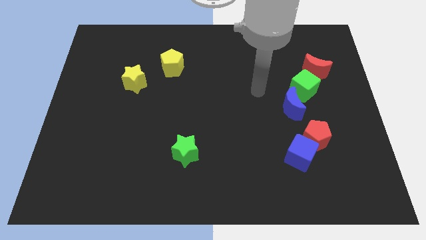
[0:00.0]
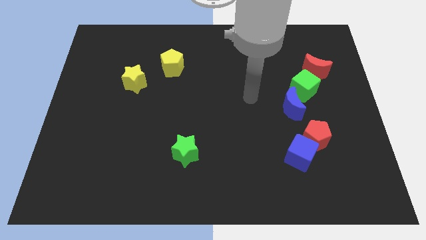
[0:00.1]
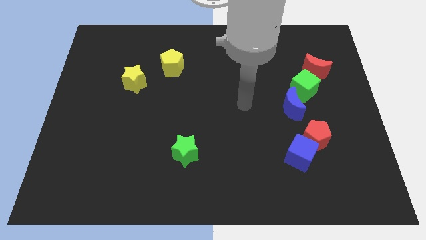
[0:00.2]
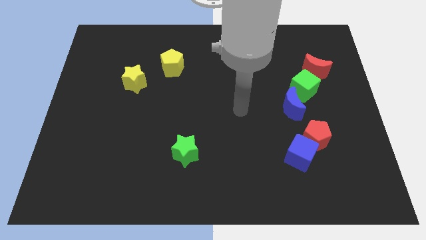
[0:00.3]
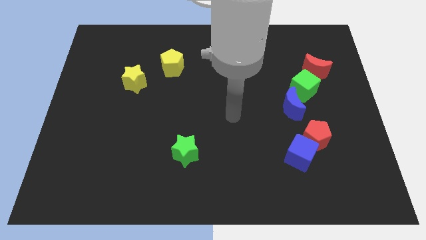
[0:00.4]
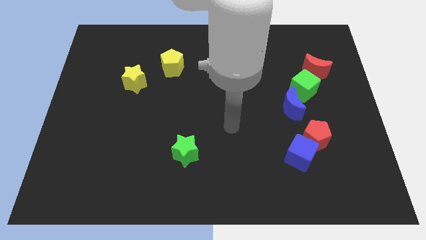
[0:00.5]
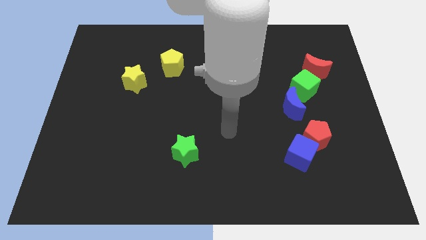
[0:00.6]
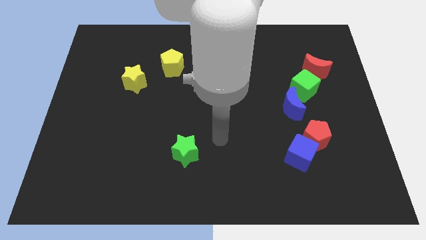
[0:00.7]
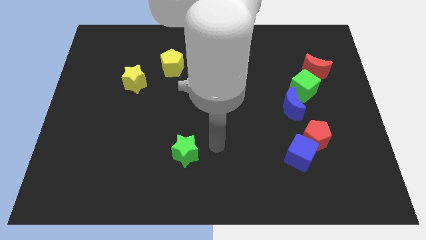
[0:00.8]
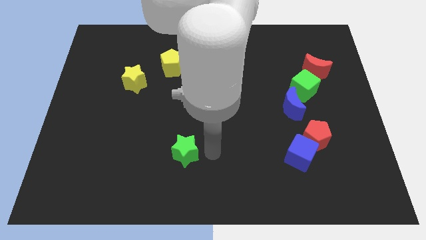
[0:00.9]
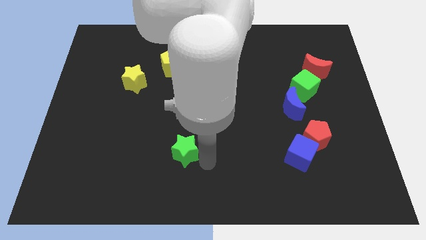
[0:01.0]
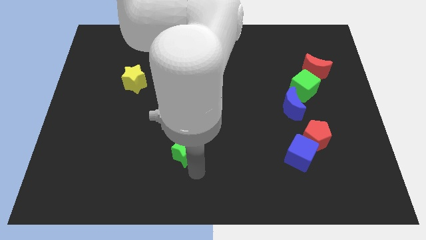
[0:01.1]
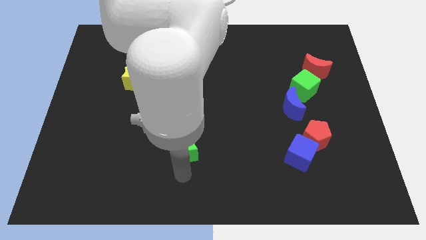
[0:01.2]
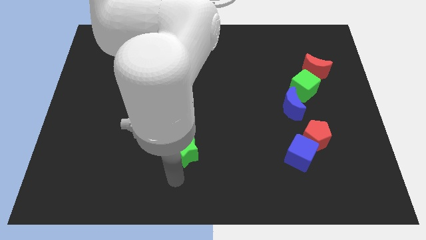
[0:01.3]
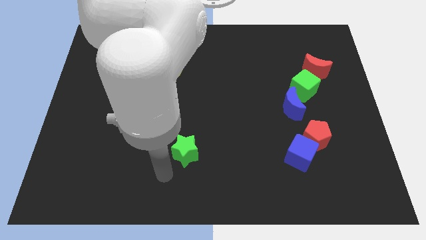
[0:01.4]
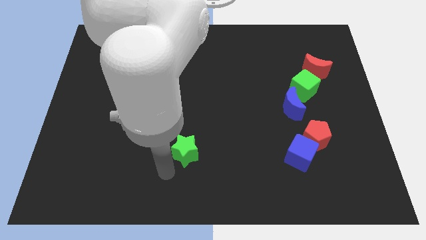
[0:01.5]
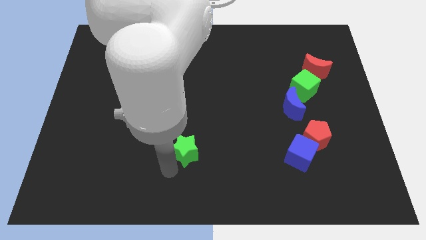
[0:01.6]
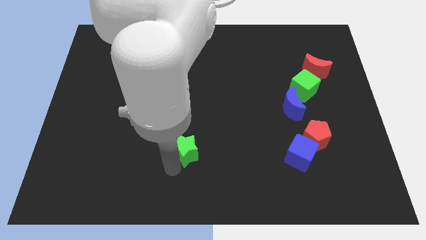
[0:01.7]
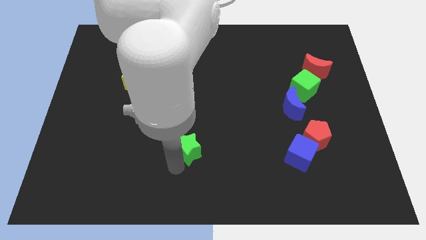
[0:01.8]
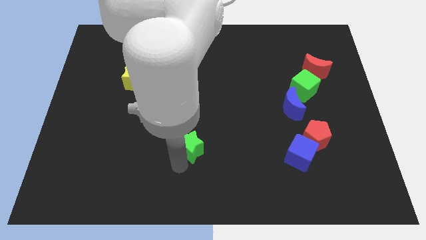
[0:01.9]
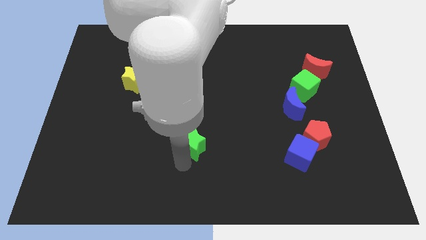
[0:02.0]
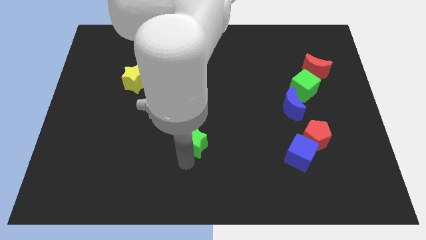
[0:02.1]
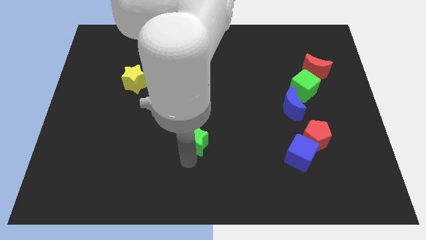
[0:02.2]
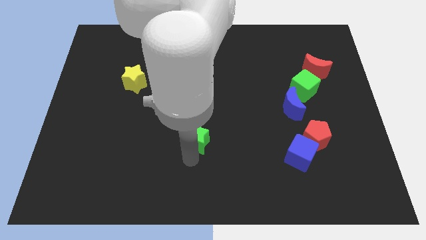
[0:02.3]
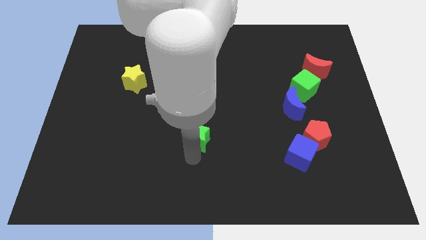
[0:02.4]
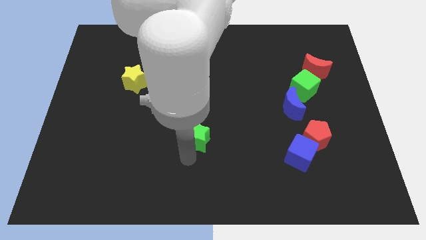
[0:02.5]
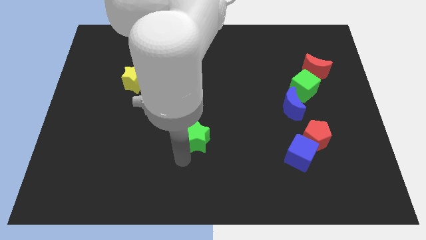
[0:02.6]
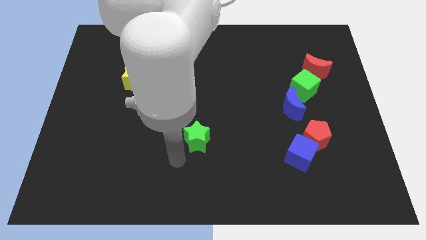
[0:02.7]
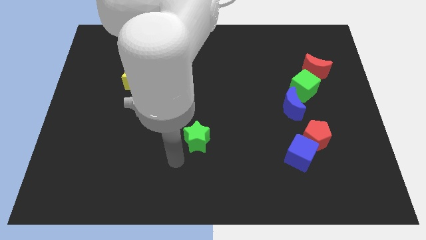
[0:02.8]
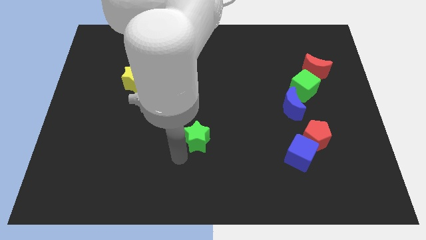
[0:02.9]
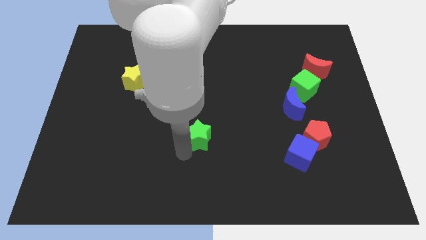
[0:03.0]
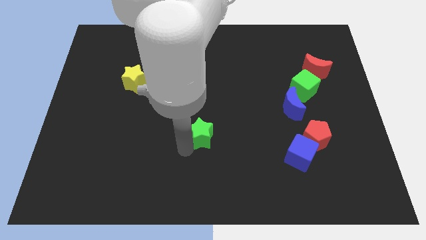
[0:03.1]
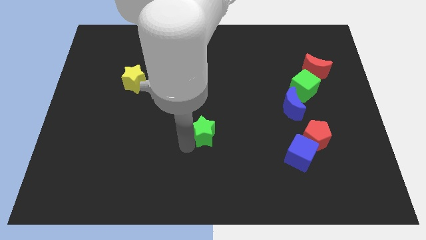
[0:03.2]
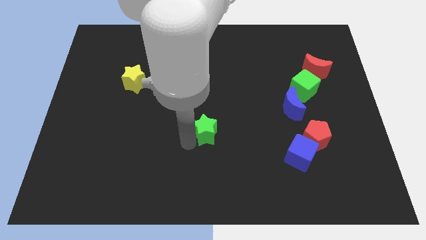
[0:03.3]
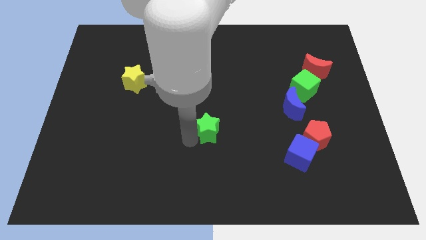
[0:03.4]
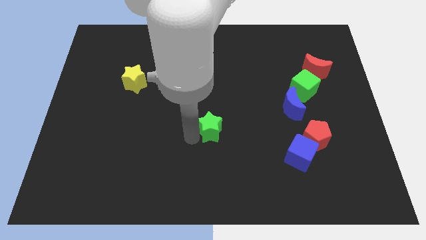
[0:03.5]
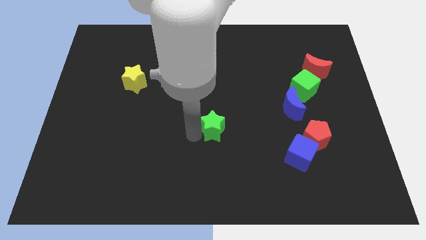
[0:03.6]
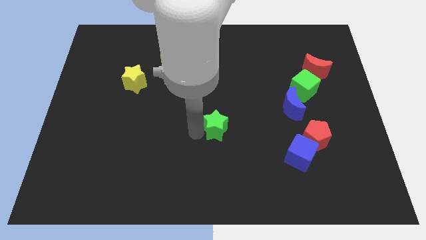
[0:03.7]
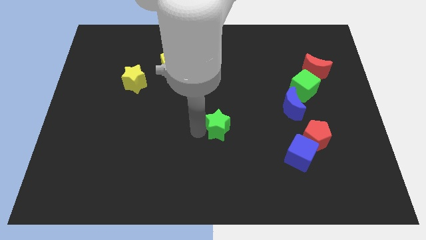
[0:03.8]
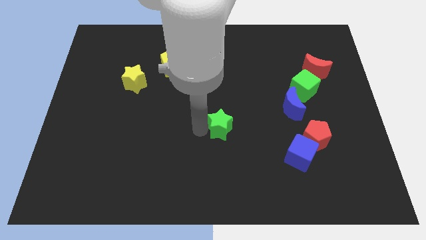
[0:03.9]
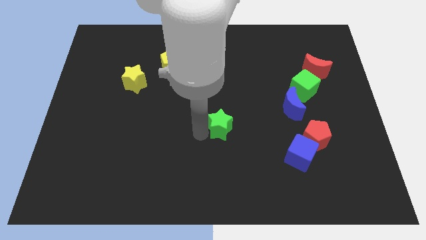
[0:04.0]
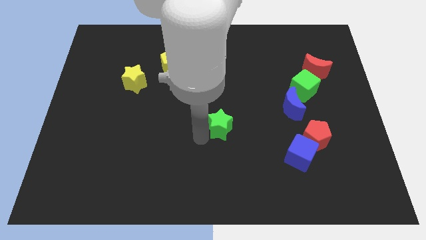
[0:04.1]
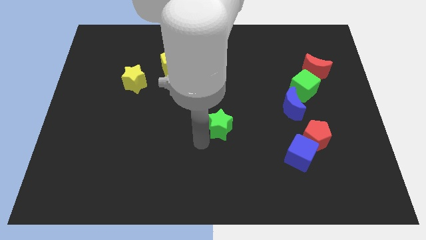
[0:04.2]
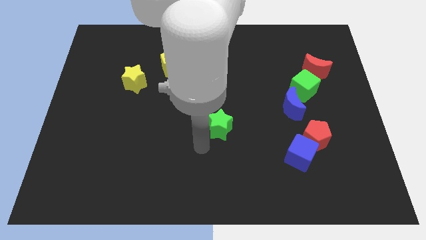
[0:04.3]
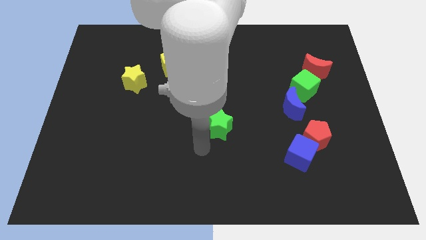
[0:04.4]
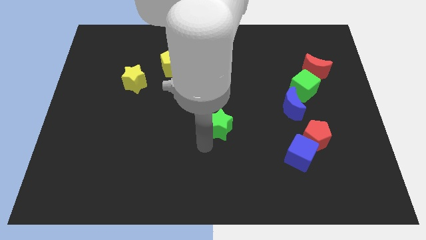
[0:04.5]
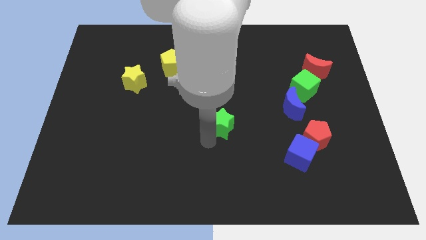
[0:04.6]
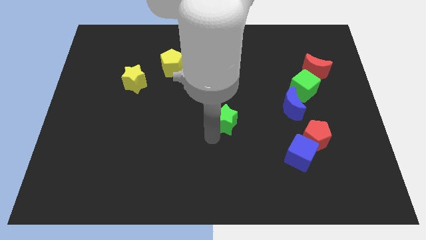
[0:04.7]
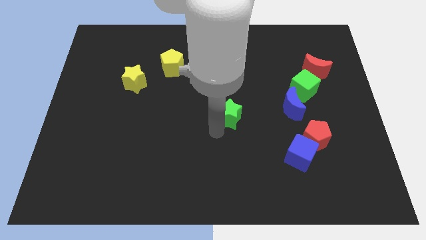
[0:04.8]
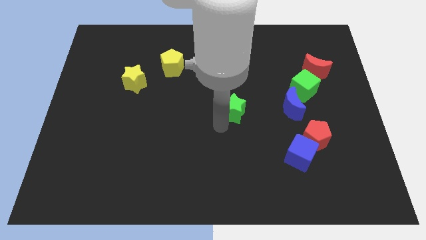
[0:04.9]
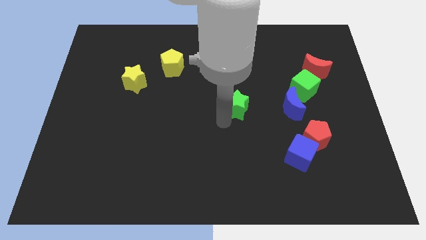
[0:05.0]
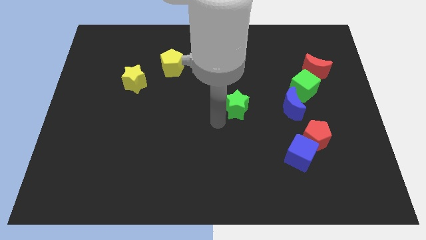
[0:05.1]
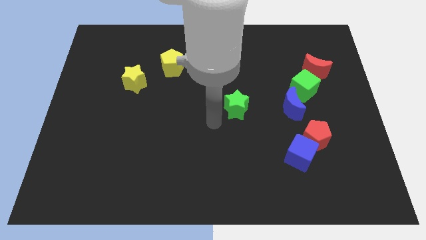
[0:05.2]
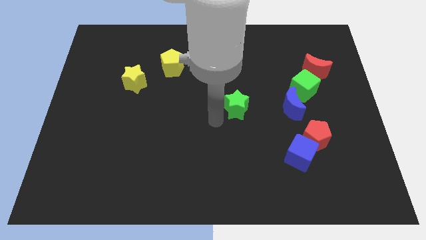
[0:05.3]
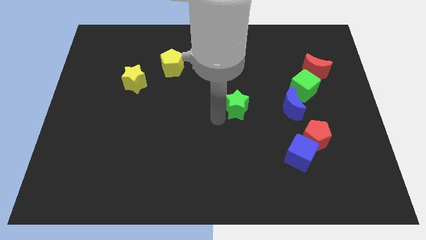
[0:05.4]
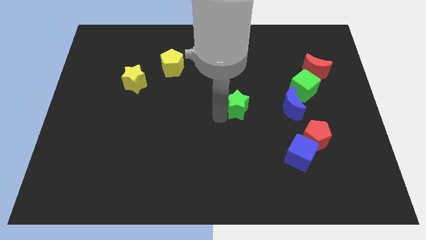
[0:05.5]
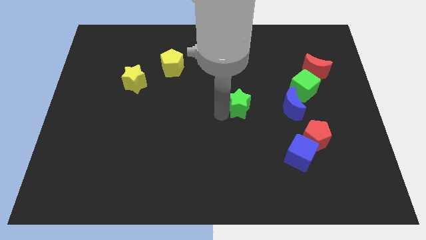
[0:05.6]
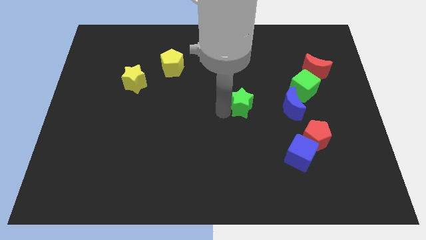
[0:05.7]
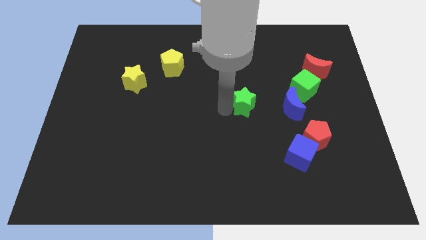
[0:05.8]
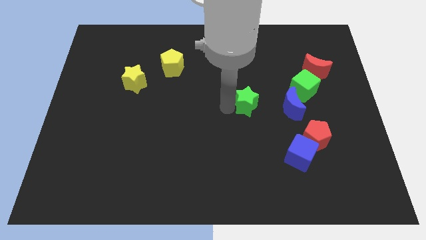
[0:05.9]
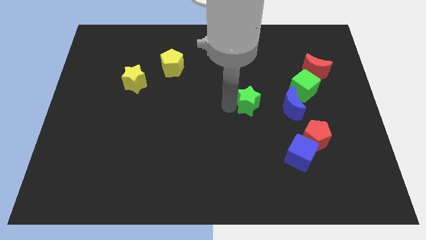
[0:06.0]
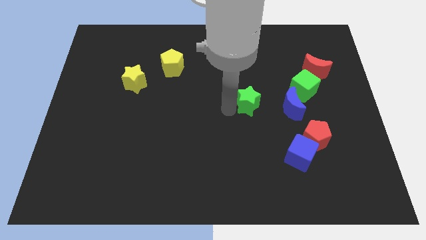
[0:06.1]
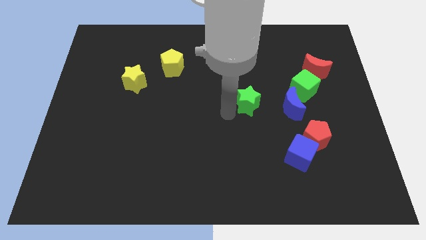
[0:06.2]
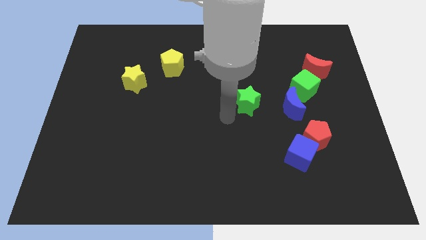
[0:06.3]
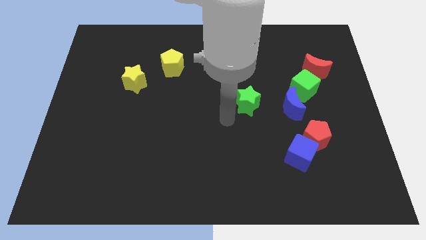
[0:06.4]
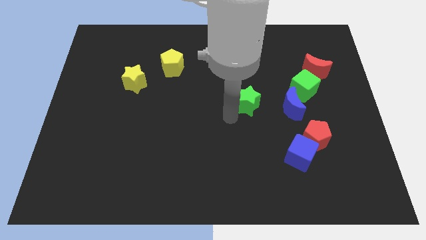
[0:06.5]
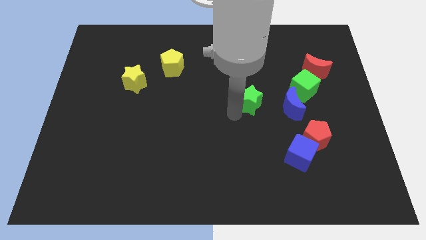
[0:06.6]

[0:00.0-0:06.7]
slide the green star up and right

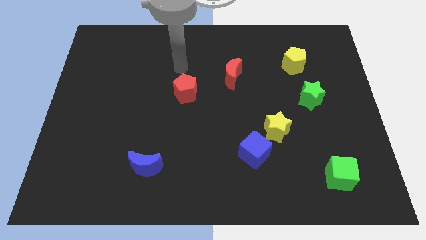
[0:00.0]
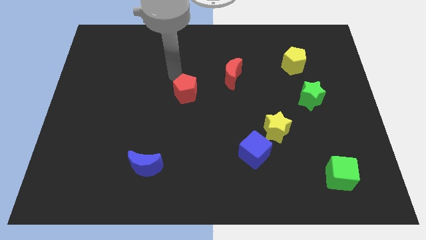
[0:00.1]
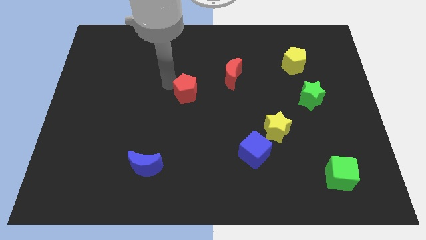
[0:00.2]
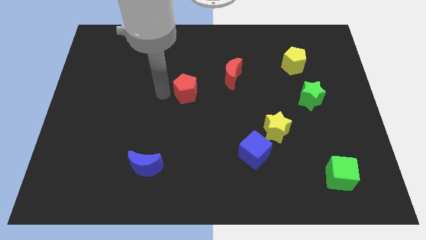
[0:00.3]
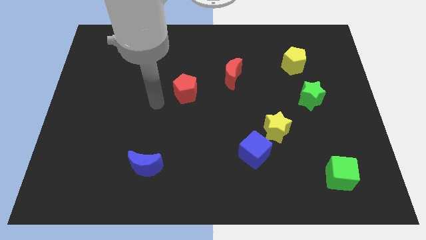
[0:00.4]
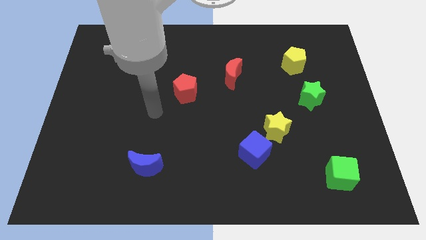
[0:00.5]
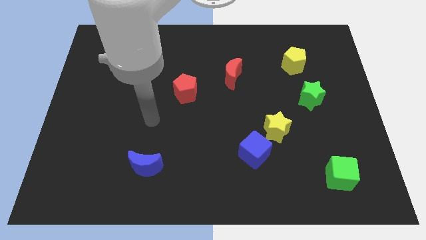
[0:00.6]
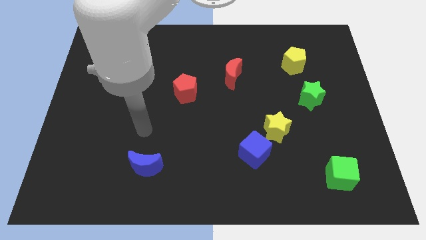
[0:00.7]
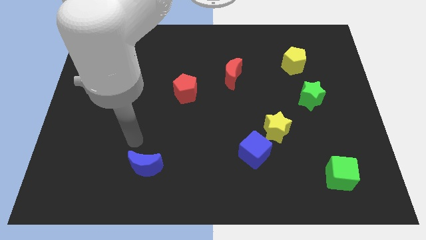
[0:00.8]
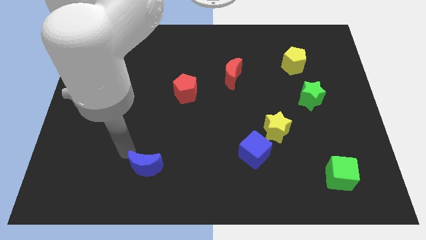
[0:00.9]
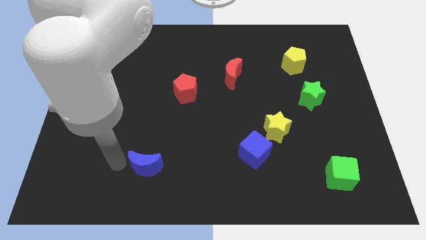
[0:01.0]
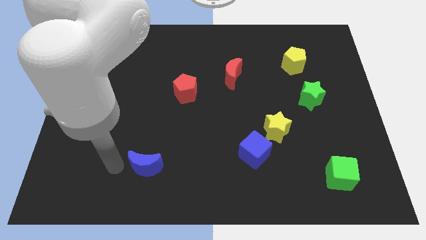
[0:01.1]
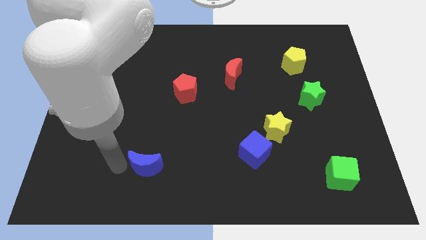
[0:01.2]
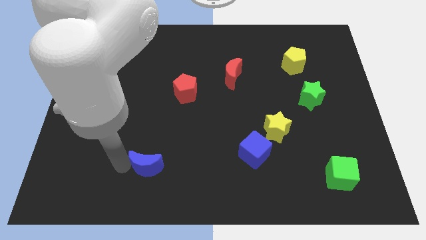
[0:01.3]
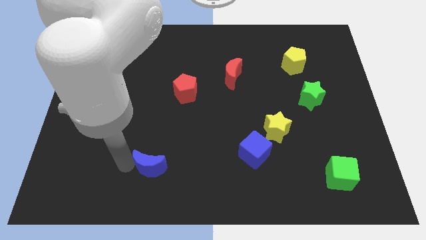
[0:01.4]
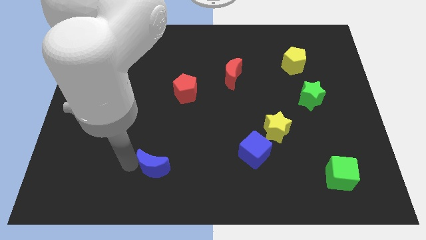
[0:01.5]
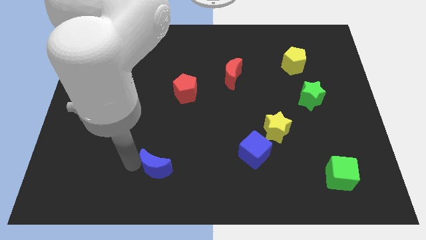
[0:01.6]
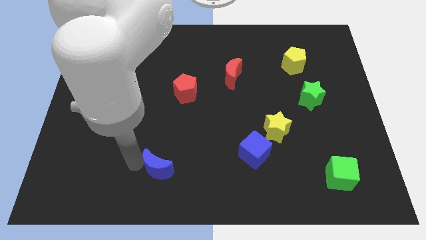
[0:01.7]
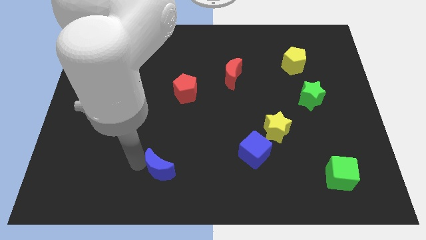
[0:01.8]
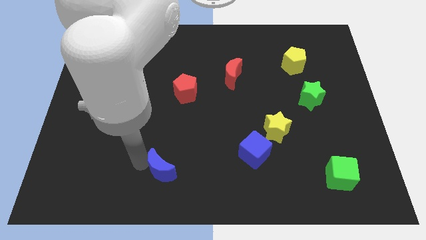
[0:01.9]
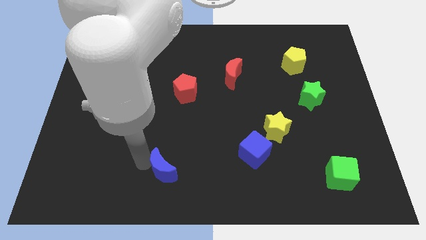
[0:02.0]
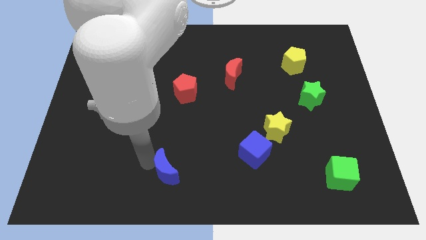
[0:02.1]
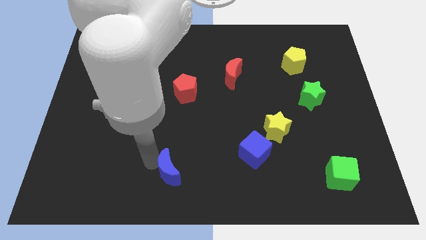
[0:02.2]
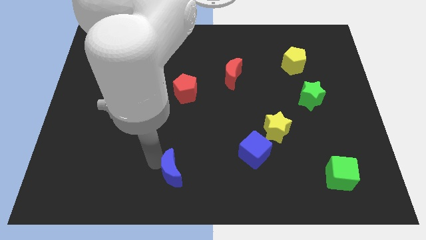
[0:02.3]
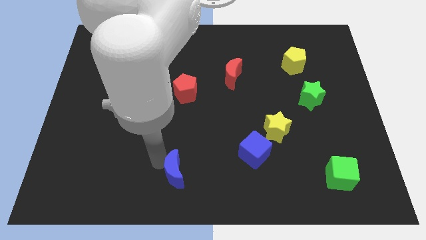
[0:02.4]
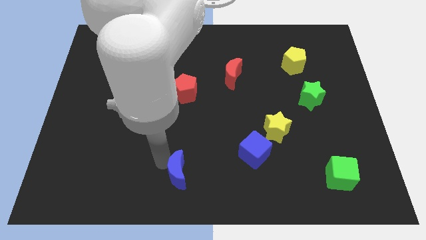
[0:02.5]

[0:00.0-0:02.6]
move the blue moon a little to the right
